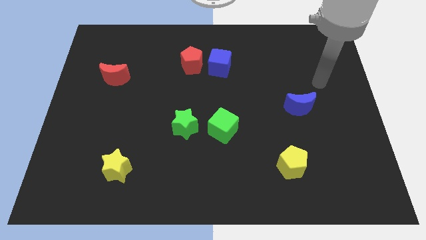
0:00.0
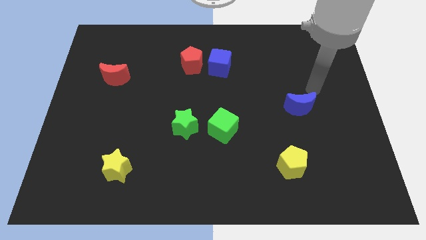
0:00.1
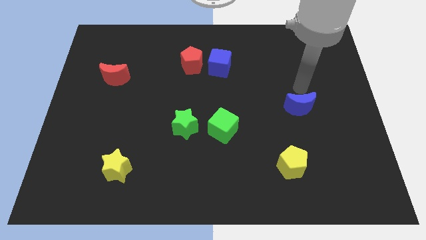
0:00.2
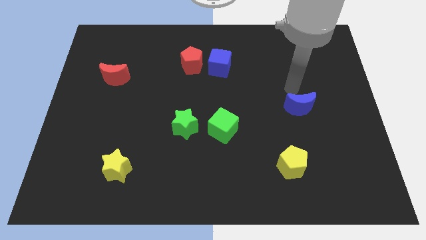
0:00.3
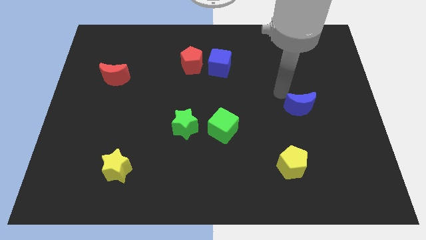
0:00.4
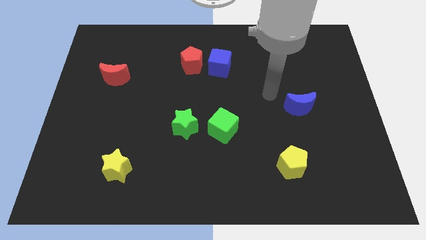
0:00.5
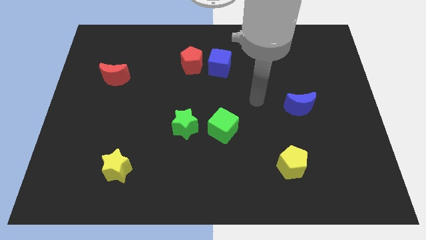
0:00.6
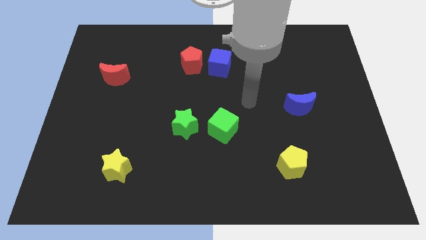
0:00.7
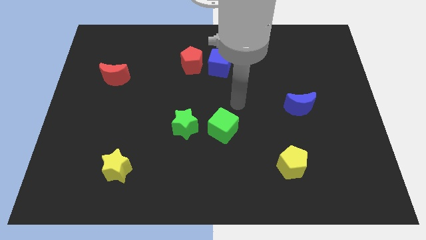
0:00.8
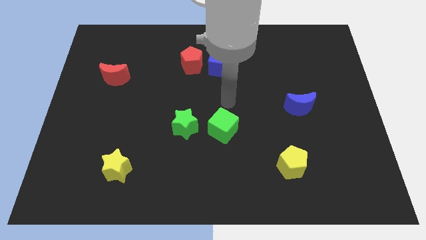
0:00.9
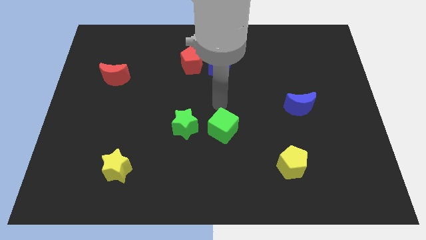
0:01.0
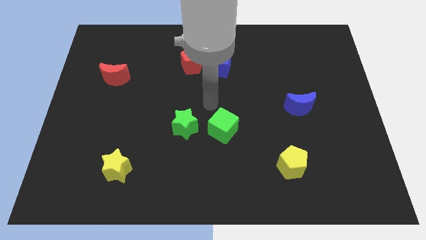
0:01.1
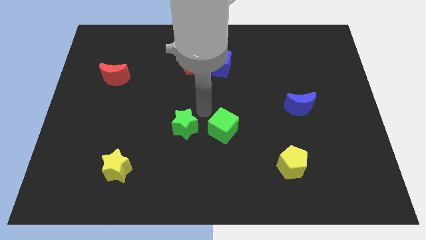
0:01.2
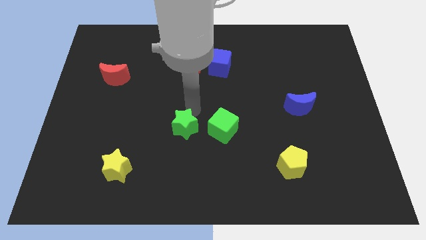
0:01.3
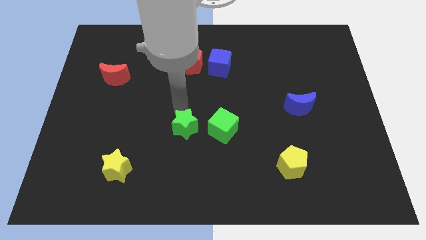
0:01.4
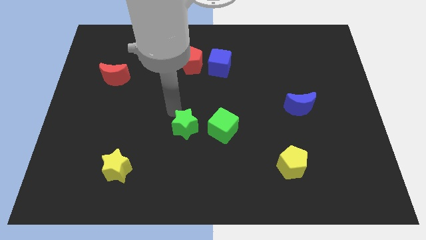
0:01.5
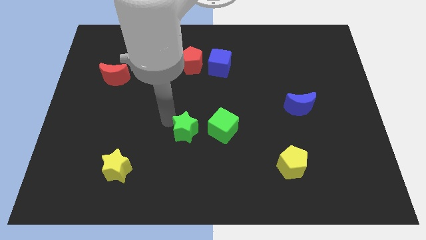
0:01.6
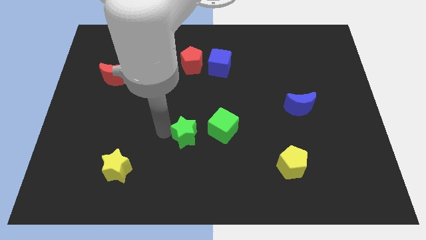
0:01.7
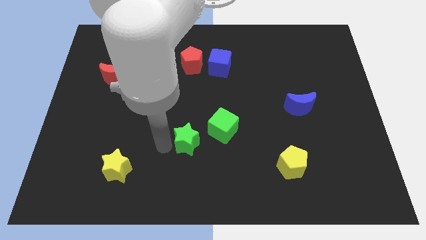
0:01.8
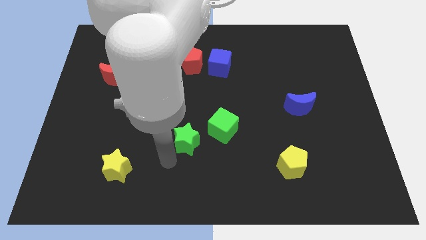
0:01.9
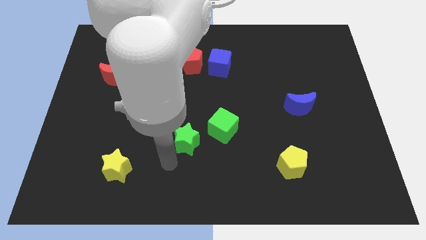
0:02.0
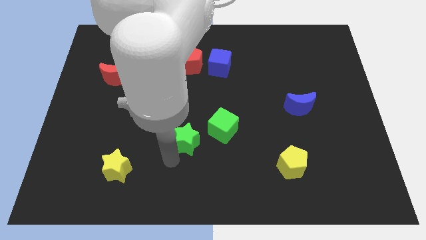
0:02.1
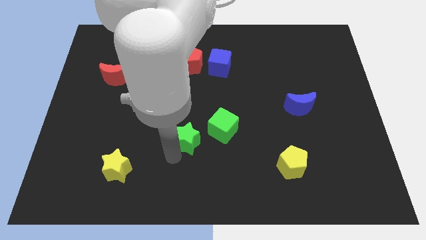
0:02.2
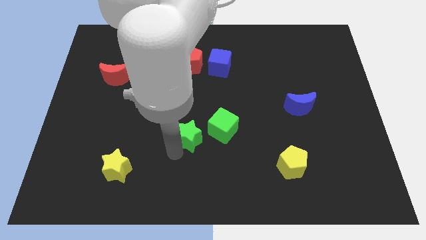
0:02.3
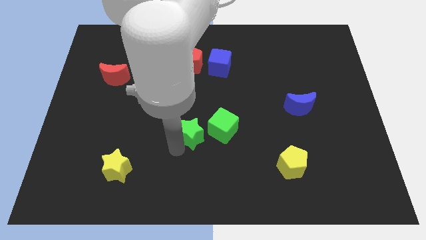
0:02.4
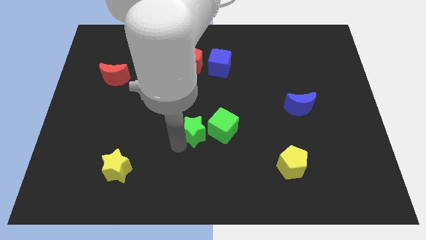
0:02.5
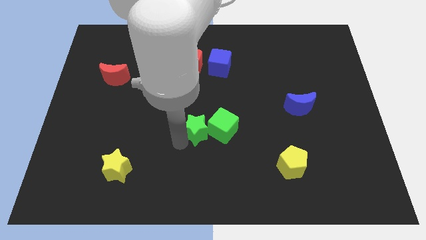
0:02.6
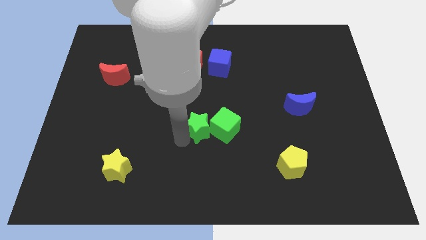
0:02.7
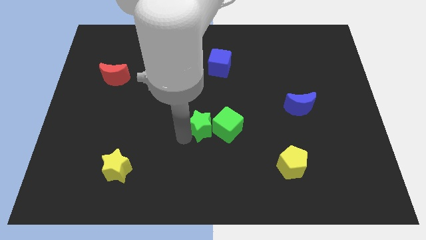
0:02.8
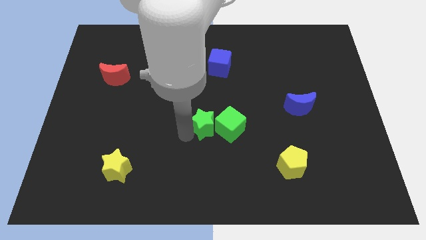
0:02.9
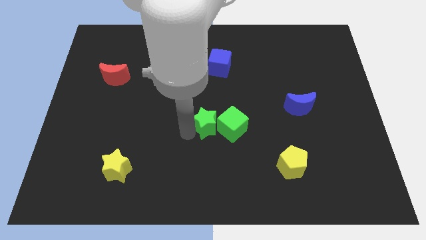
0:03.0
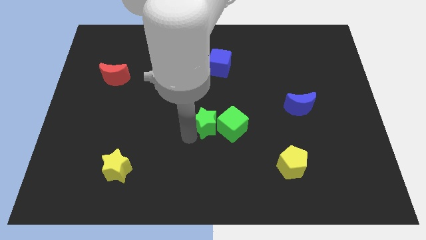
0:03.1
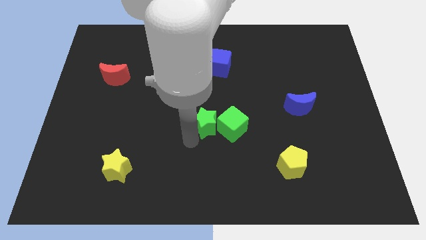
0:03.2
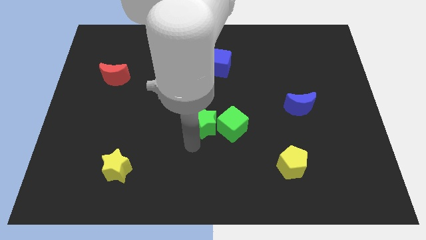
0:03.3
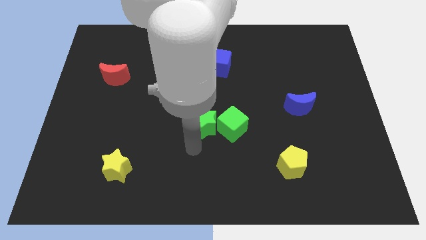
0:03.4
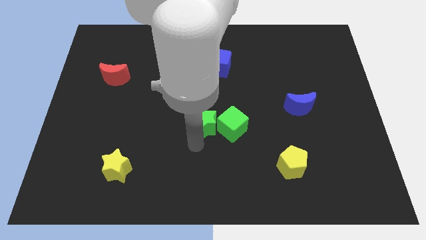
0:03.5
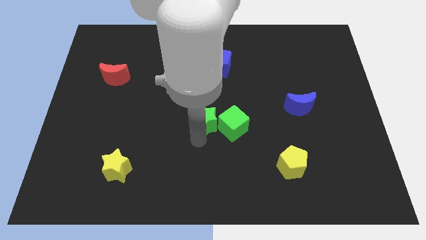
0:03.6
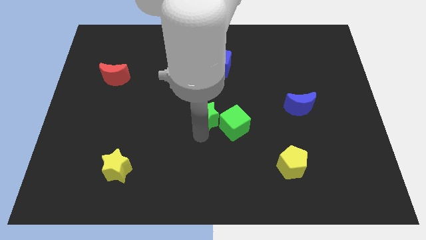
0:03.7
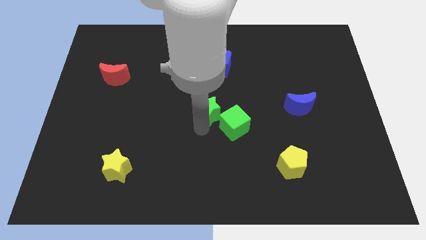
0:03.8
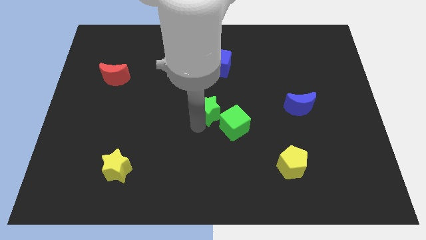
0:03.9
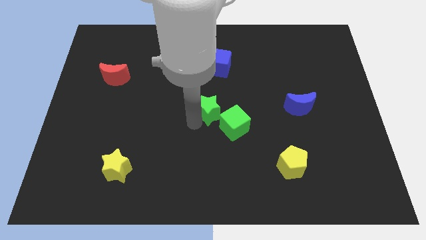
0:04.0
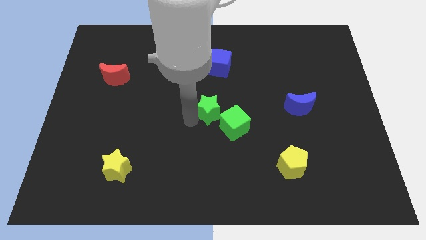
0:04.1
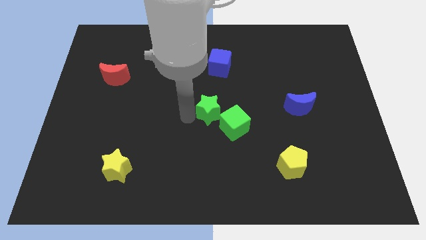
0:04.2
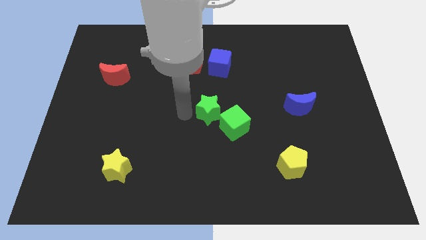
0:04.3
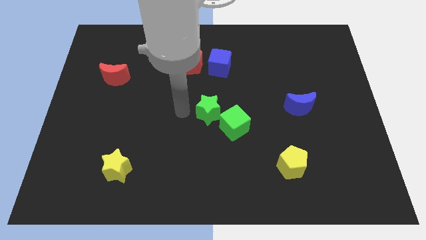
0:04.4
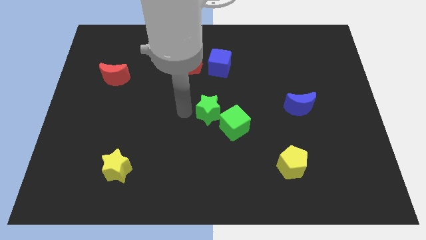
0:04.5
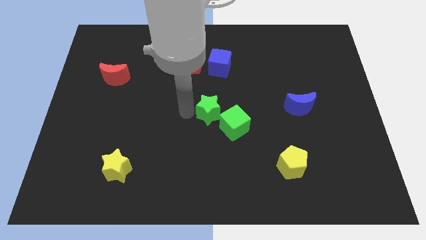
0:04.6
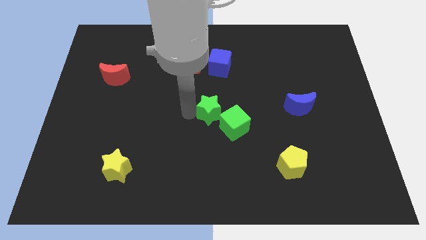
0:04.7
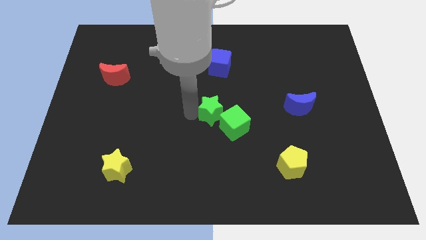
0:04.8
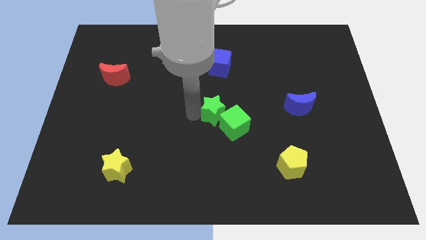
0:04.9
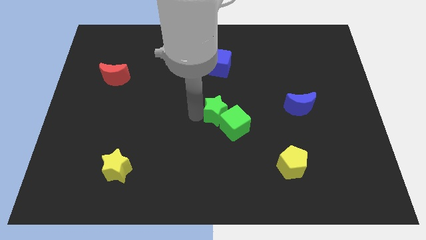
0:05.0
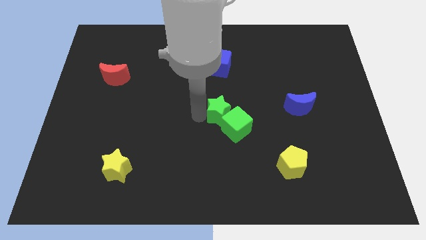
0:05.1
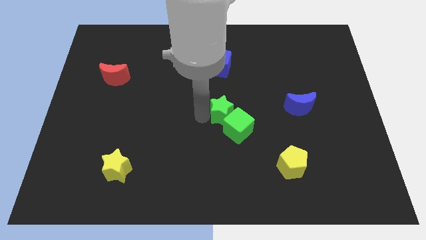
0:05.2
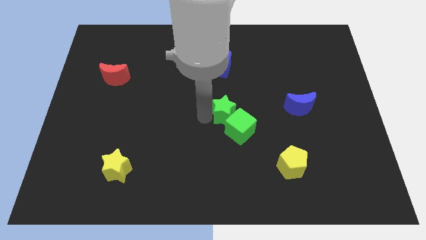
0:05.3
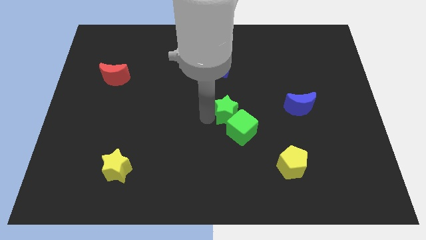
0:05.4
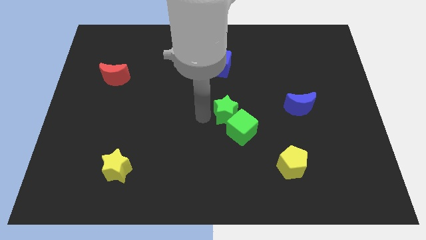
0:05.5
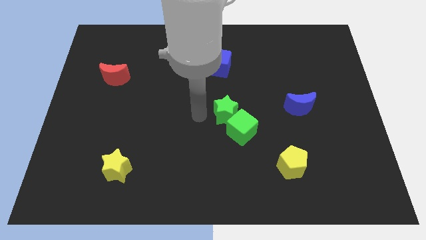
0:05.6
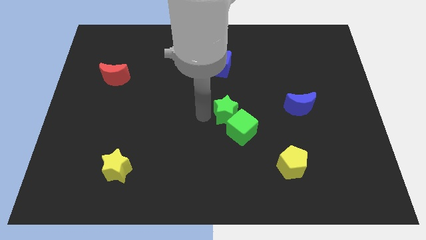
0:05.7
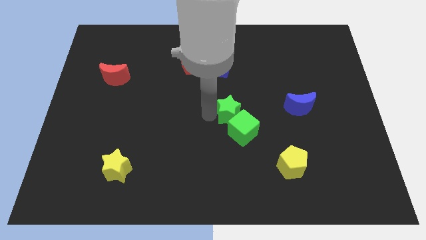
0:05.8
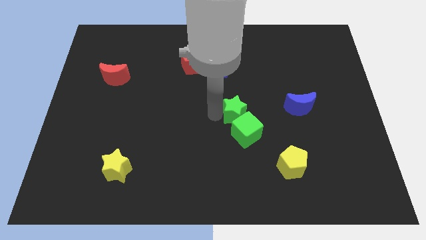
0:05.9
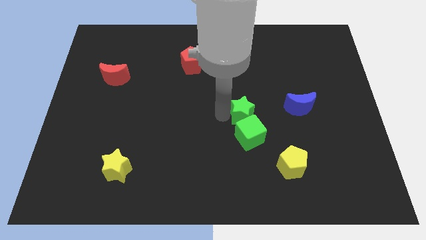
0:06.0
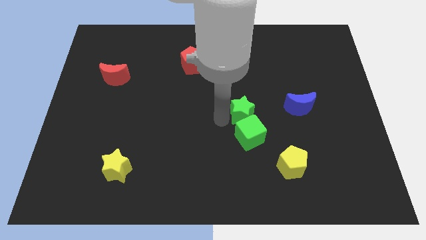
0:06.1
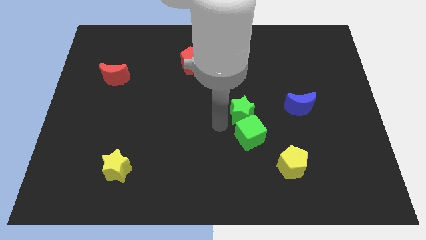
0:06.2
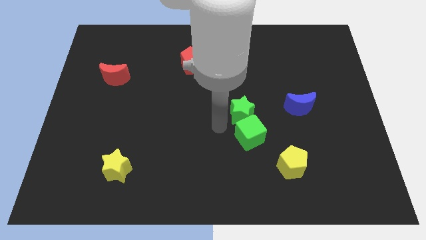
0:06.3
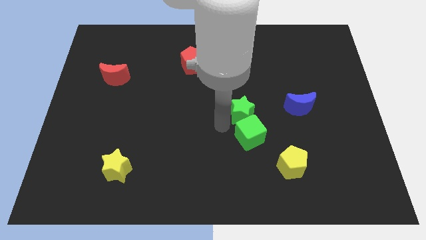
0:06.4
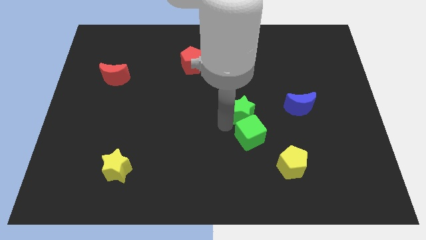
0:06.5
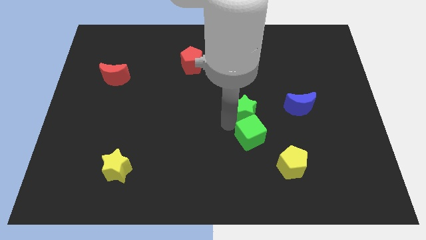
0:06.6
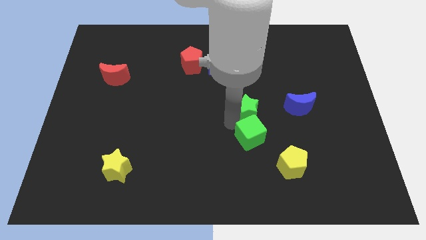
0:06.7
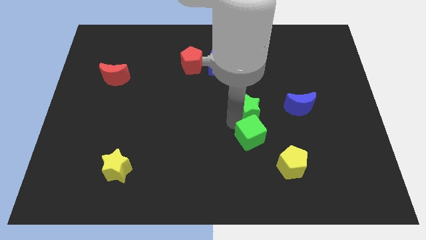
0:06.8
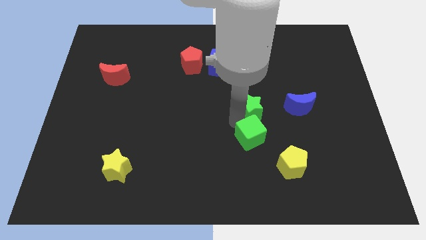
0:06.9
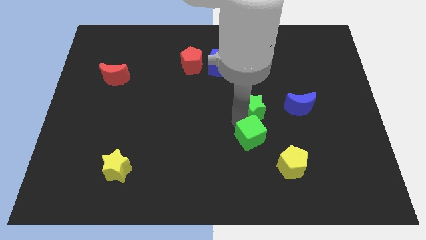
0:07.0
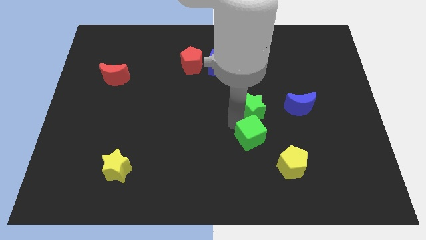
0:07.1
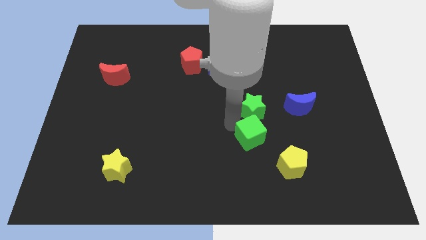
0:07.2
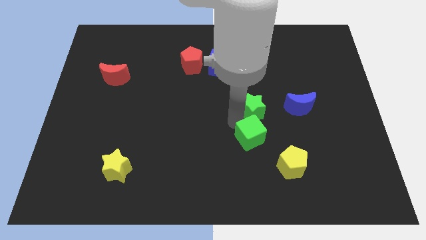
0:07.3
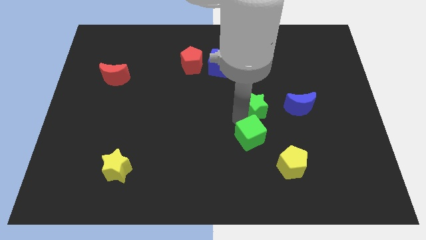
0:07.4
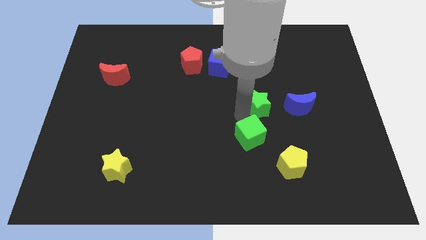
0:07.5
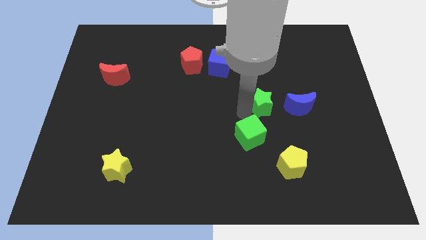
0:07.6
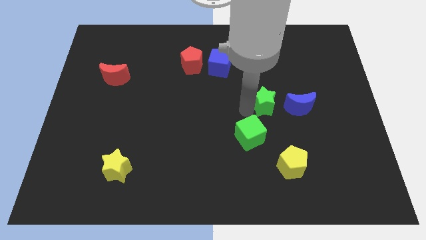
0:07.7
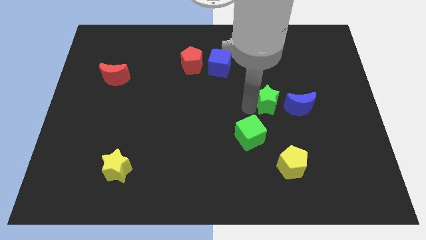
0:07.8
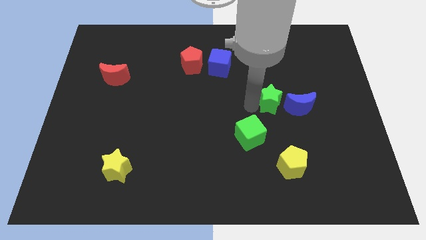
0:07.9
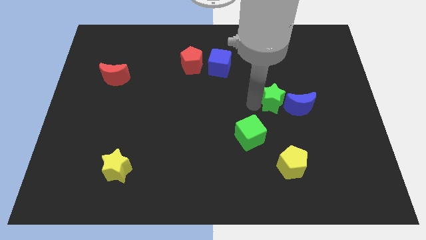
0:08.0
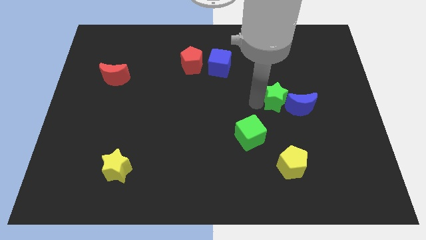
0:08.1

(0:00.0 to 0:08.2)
push the green star towards the blue moon
